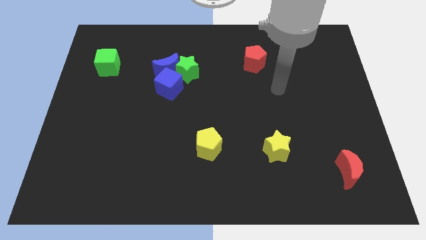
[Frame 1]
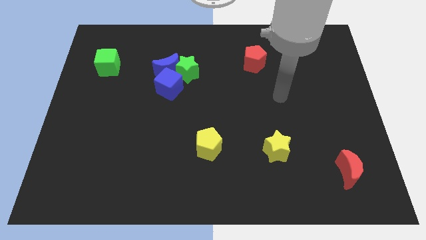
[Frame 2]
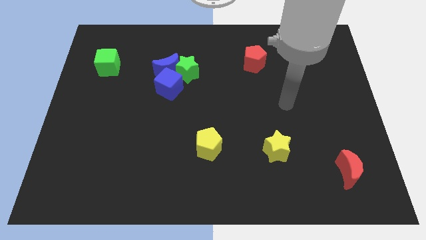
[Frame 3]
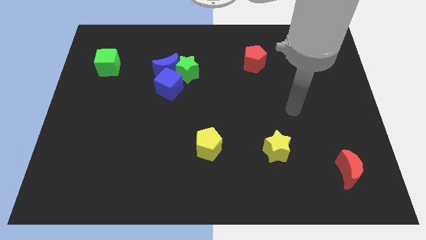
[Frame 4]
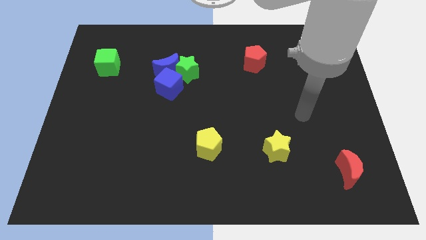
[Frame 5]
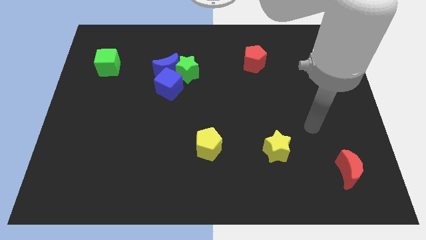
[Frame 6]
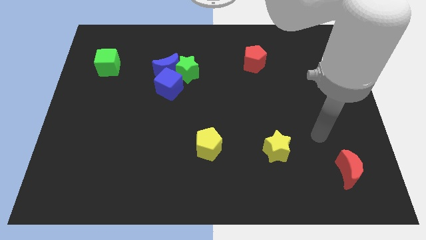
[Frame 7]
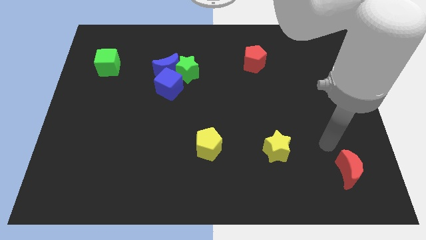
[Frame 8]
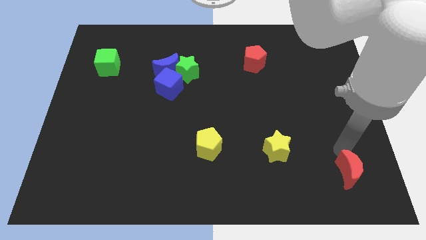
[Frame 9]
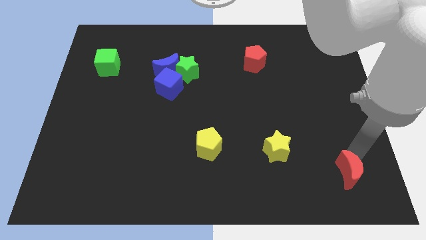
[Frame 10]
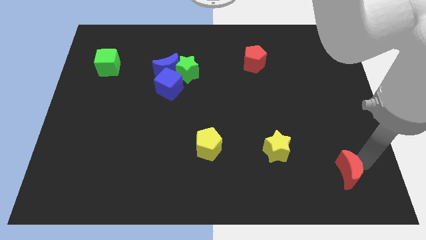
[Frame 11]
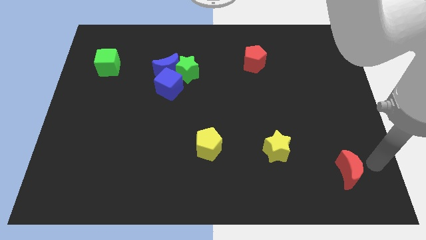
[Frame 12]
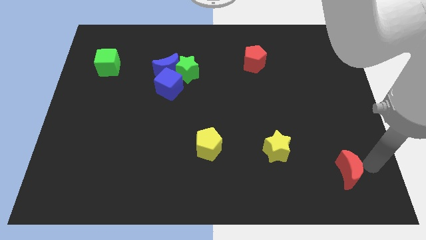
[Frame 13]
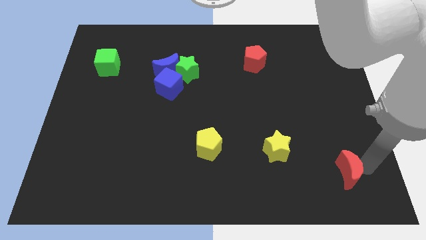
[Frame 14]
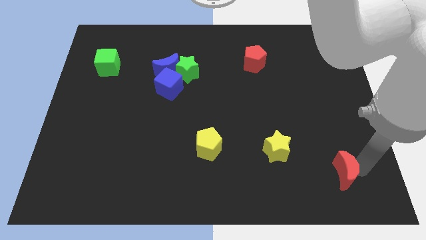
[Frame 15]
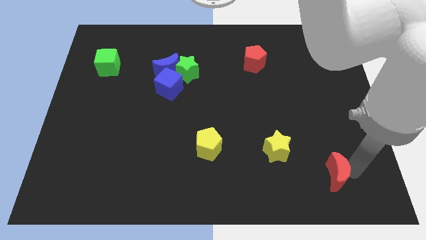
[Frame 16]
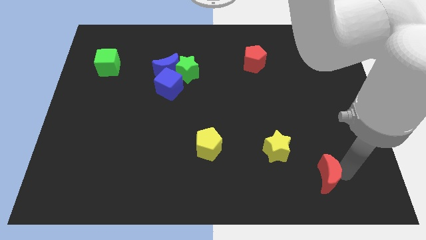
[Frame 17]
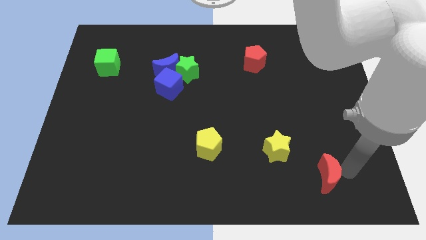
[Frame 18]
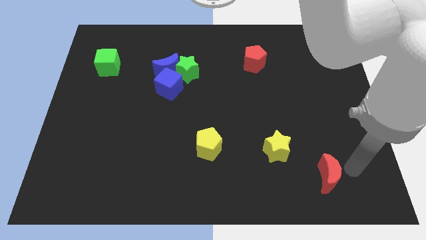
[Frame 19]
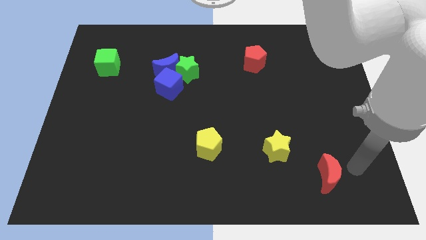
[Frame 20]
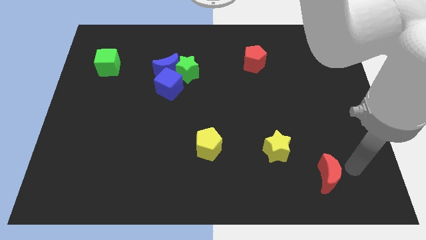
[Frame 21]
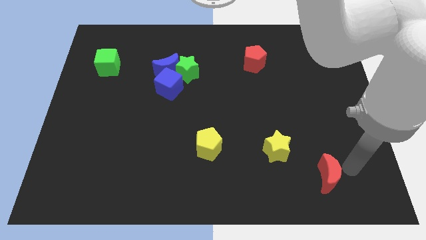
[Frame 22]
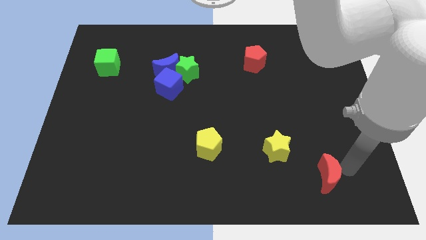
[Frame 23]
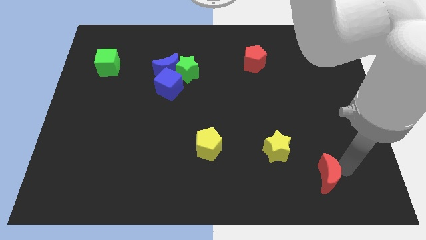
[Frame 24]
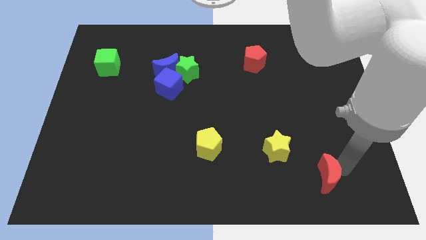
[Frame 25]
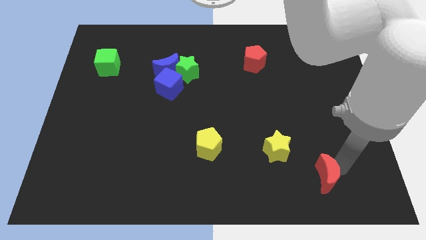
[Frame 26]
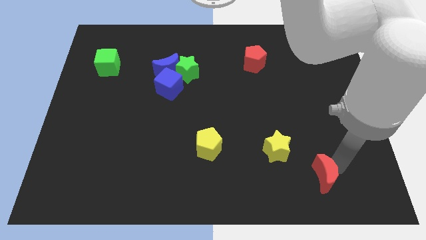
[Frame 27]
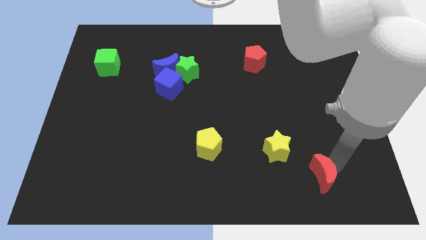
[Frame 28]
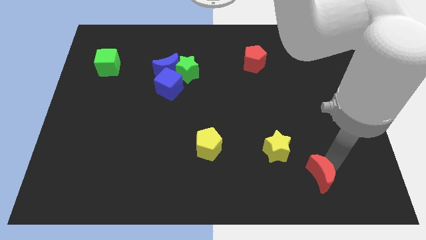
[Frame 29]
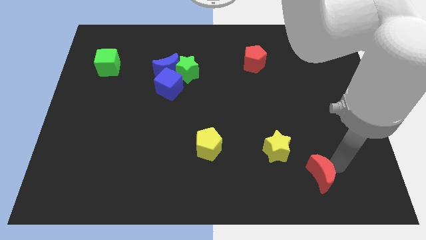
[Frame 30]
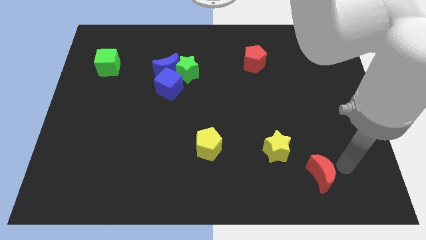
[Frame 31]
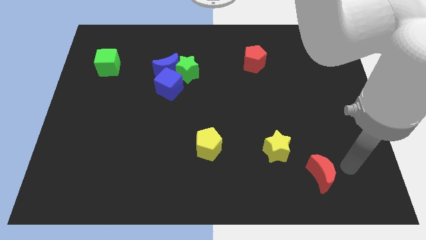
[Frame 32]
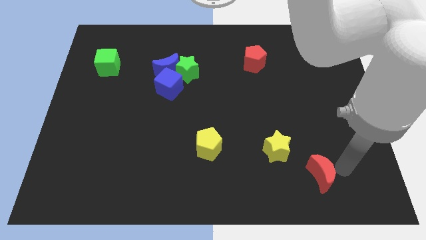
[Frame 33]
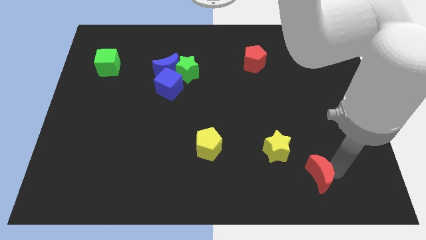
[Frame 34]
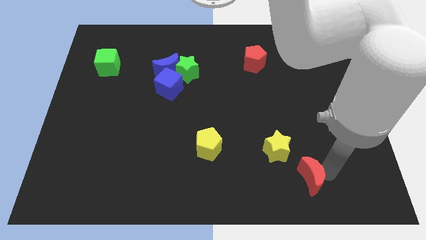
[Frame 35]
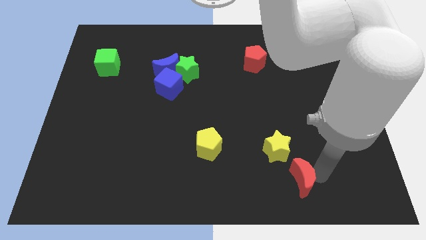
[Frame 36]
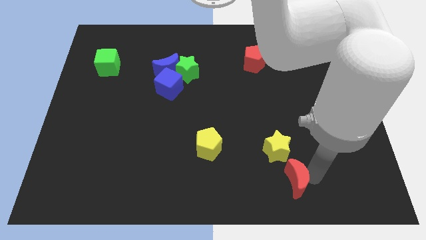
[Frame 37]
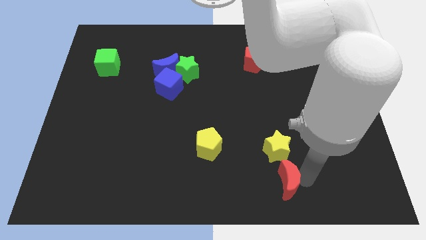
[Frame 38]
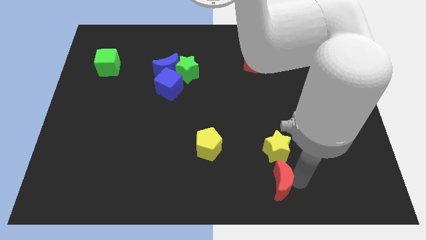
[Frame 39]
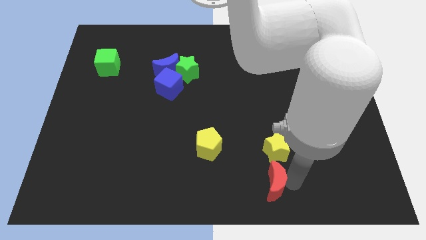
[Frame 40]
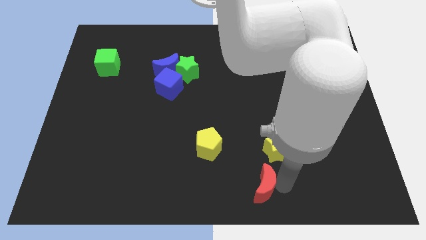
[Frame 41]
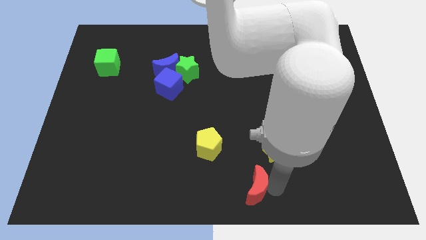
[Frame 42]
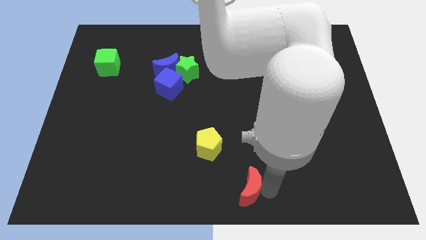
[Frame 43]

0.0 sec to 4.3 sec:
move the red moon to the left

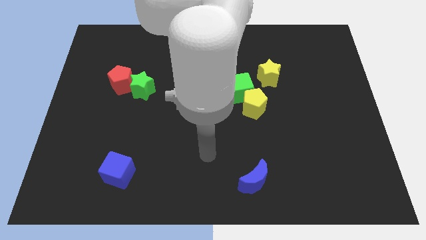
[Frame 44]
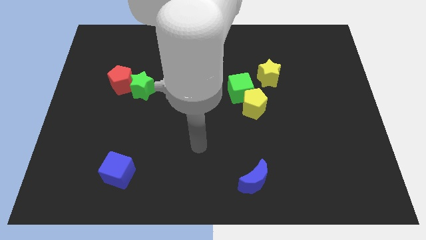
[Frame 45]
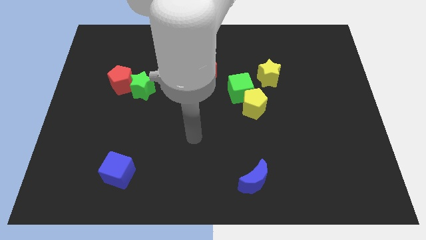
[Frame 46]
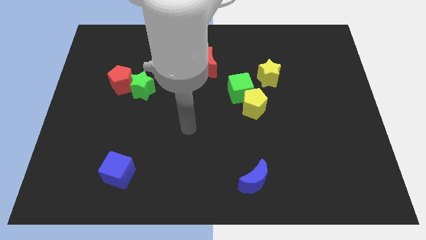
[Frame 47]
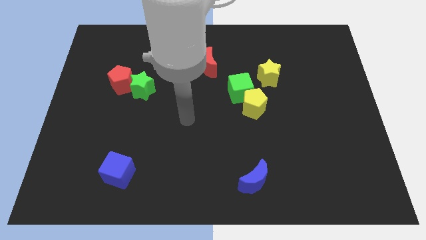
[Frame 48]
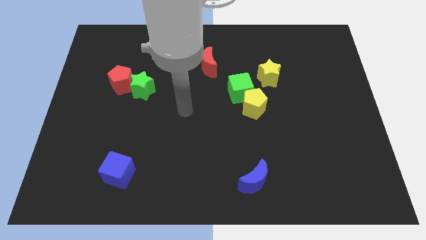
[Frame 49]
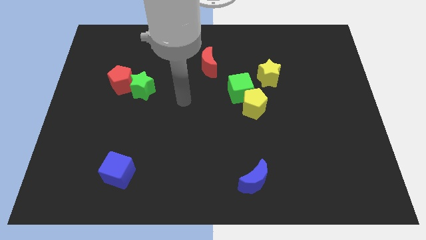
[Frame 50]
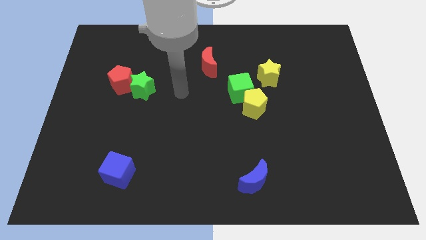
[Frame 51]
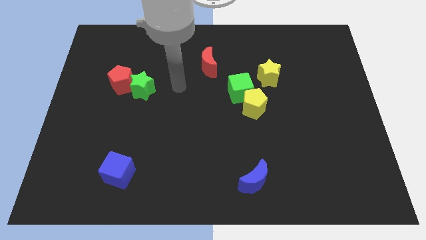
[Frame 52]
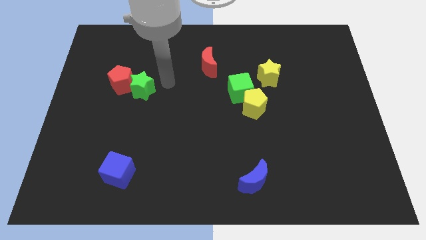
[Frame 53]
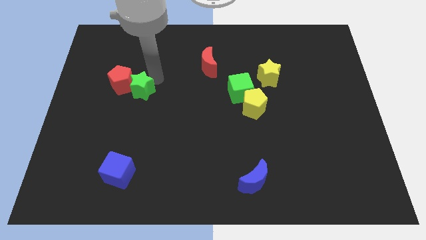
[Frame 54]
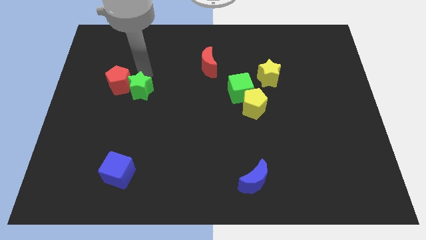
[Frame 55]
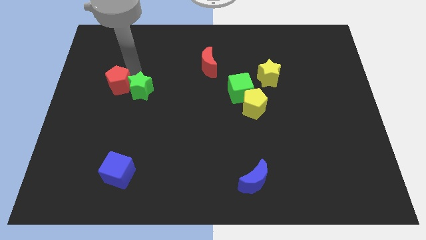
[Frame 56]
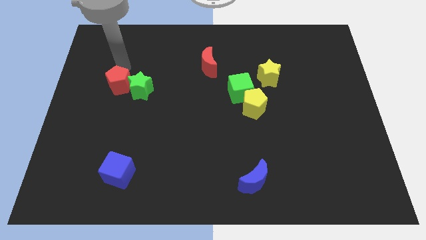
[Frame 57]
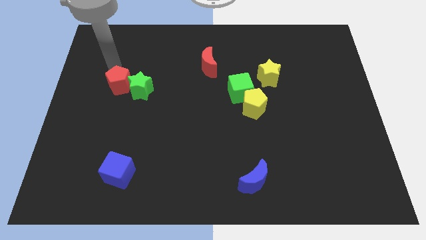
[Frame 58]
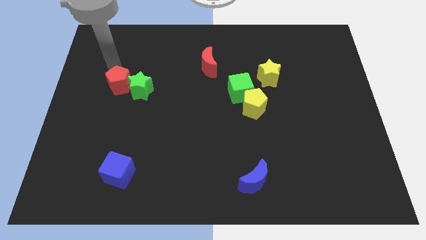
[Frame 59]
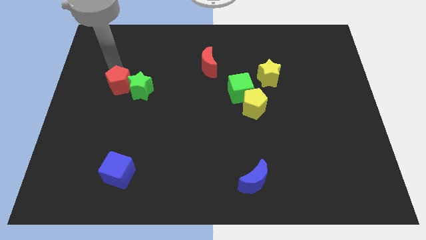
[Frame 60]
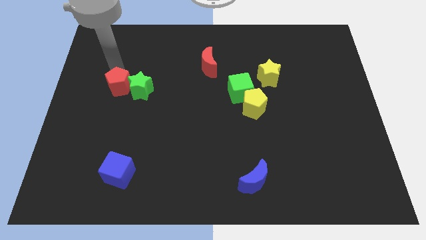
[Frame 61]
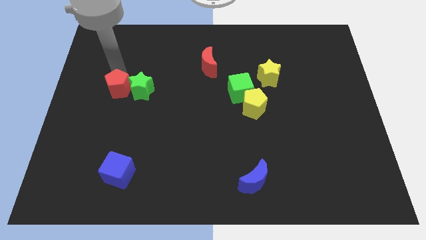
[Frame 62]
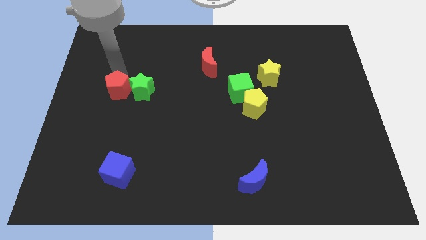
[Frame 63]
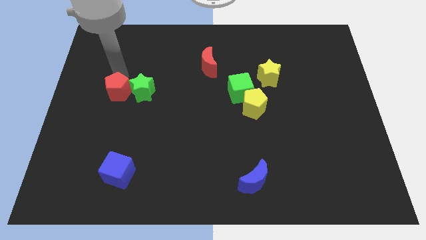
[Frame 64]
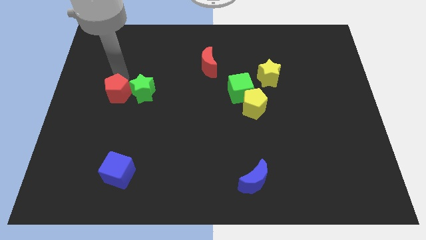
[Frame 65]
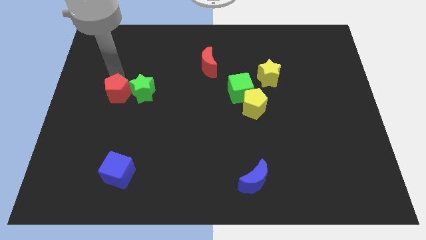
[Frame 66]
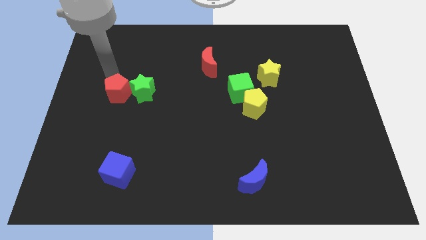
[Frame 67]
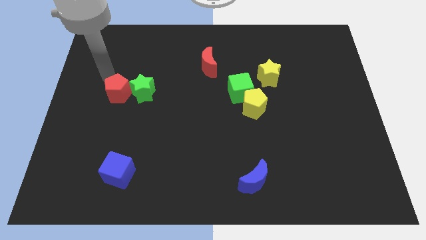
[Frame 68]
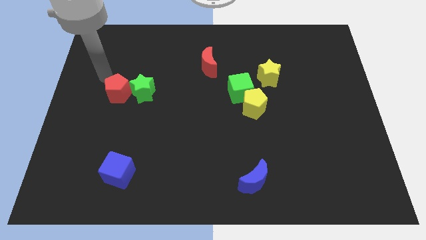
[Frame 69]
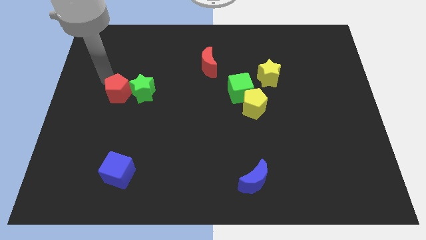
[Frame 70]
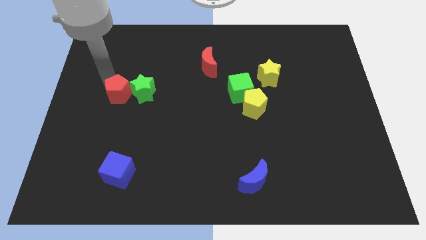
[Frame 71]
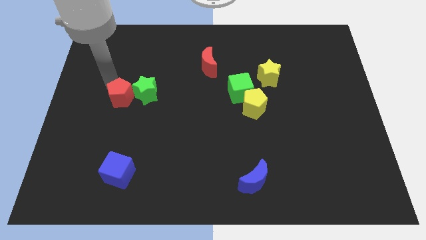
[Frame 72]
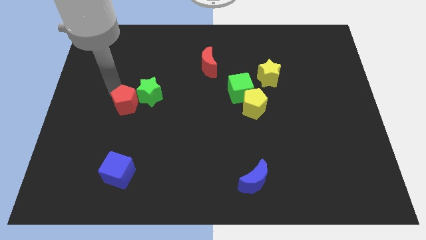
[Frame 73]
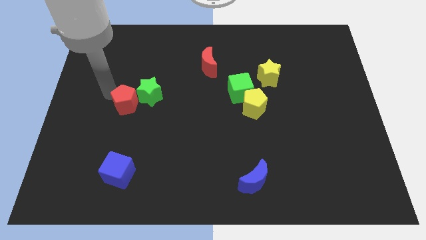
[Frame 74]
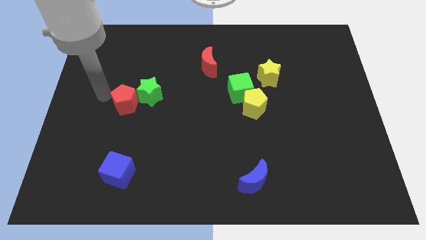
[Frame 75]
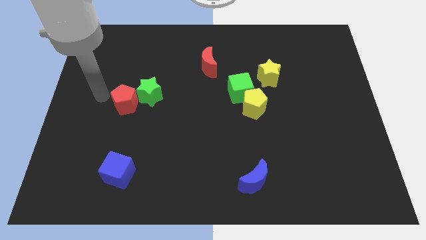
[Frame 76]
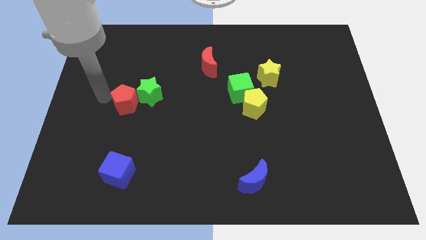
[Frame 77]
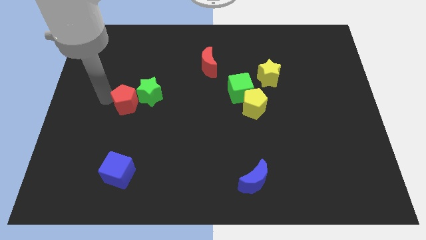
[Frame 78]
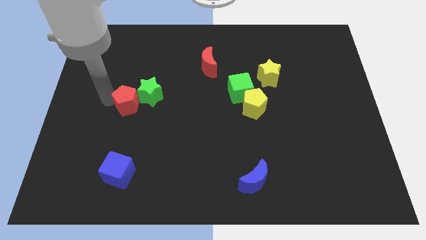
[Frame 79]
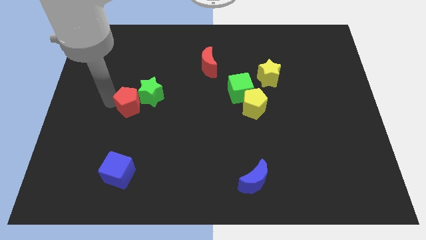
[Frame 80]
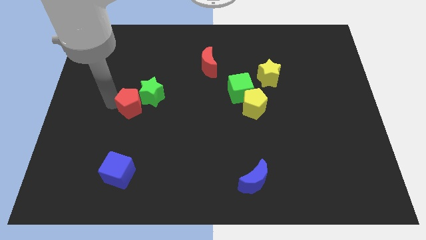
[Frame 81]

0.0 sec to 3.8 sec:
slightly move the red pentagon diagonally downwards and to the right
